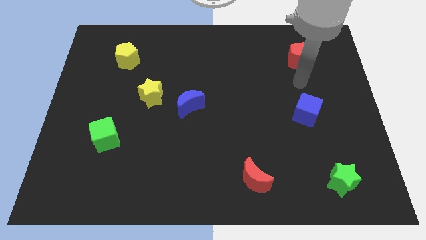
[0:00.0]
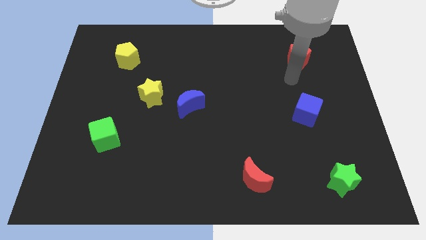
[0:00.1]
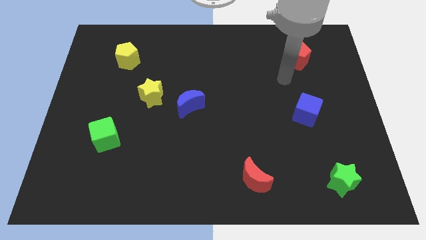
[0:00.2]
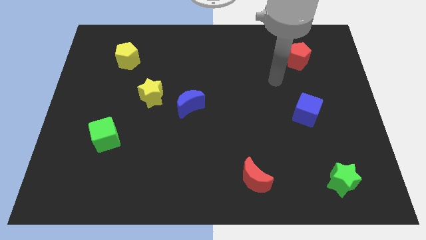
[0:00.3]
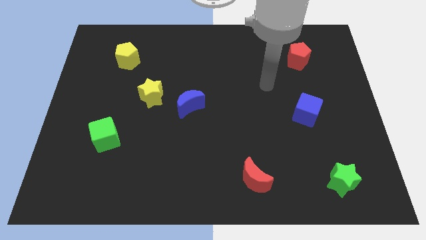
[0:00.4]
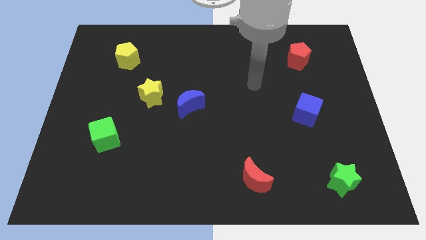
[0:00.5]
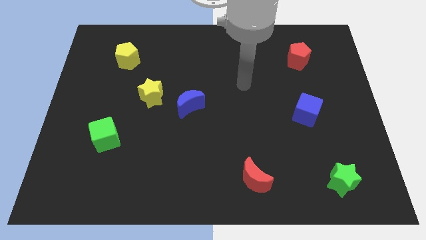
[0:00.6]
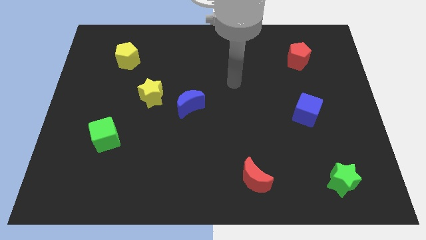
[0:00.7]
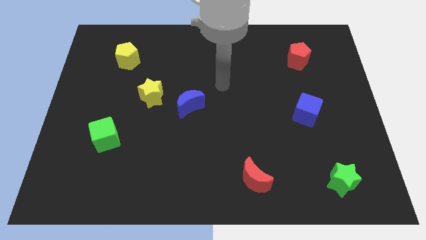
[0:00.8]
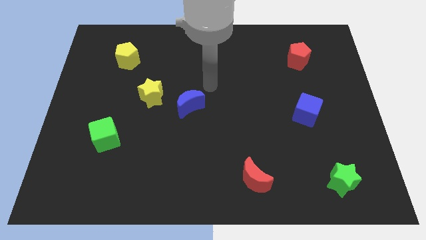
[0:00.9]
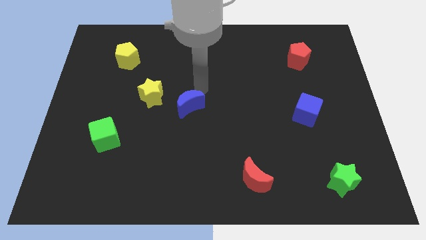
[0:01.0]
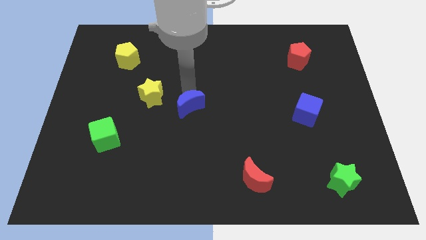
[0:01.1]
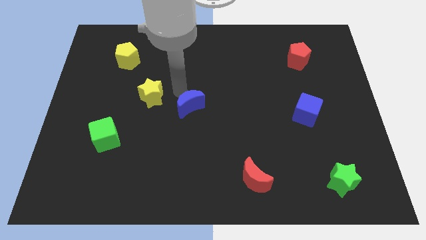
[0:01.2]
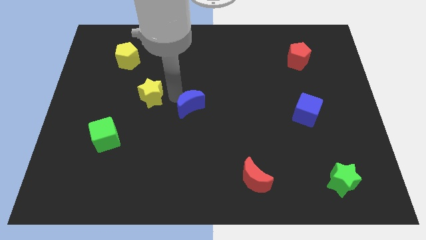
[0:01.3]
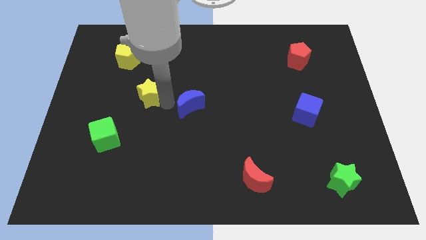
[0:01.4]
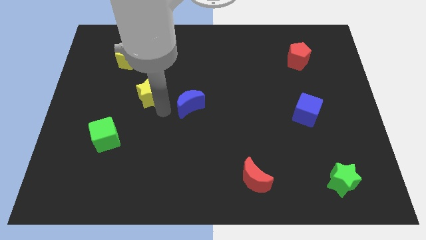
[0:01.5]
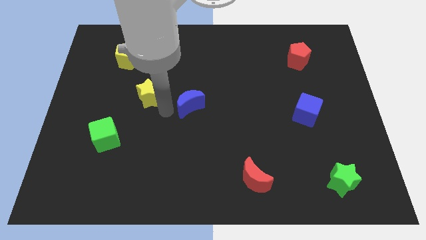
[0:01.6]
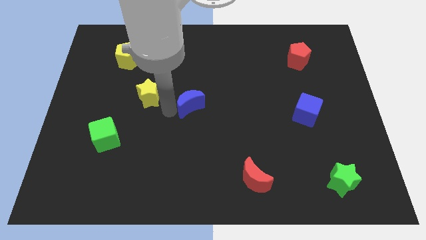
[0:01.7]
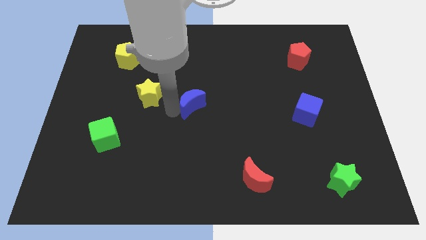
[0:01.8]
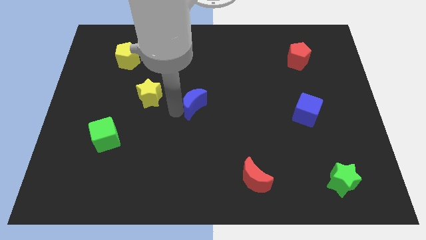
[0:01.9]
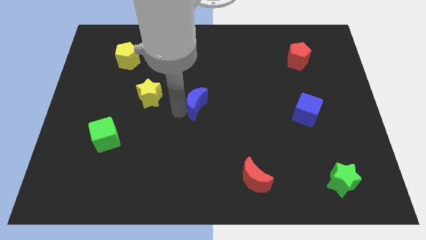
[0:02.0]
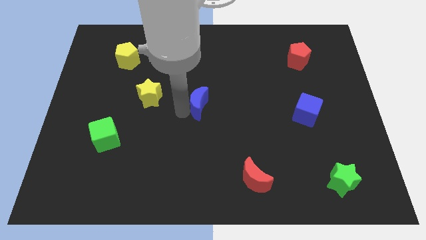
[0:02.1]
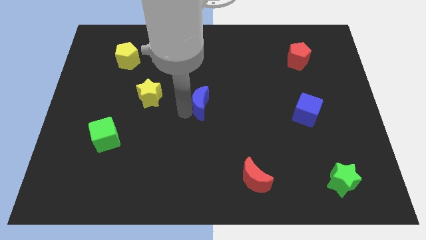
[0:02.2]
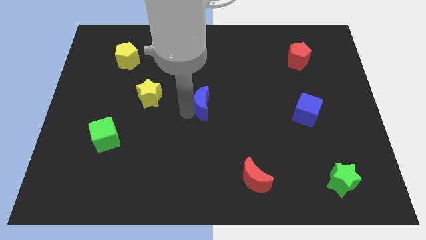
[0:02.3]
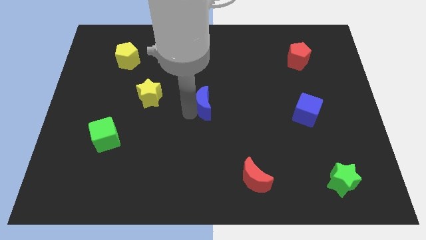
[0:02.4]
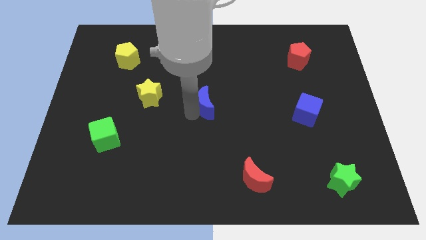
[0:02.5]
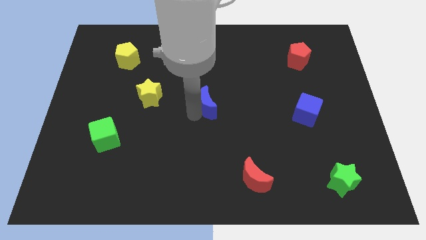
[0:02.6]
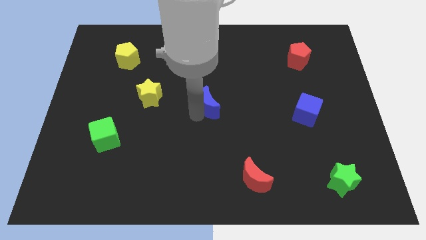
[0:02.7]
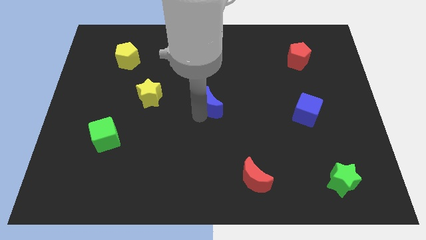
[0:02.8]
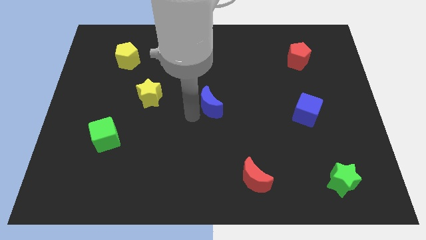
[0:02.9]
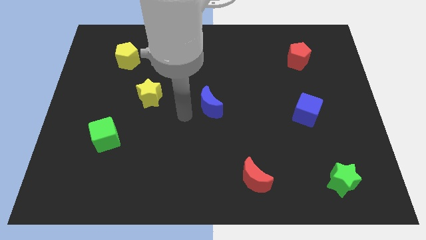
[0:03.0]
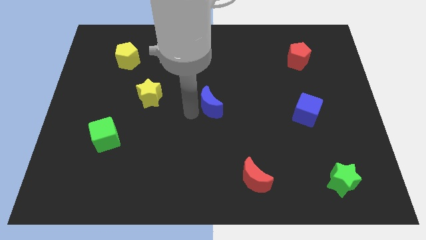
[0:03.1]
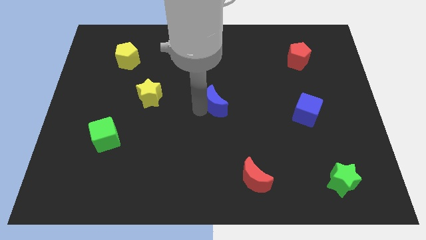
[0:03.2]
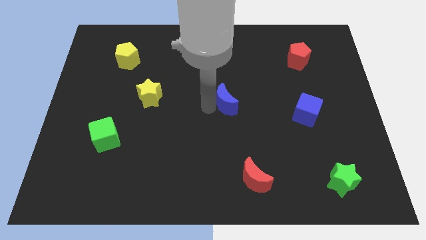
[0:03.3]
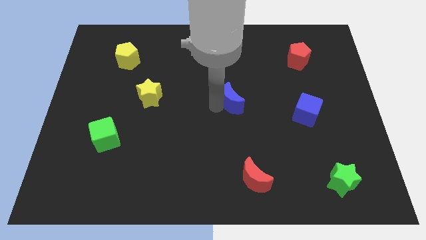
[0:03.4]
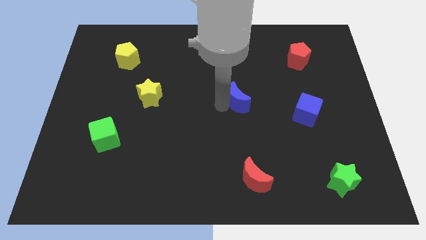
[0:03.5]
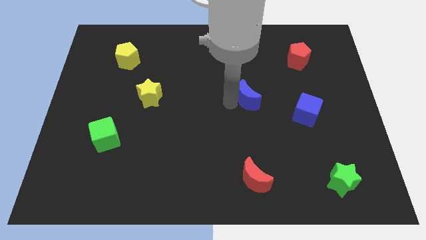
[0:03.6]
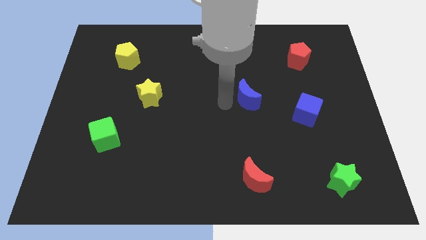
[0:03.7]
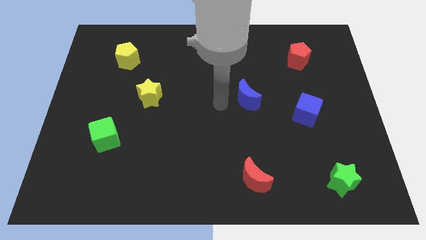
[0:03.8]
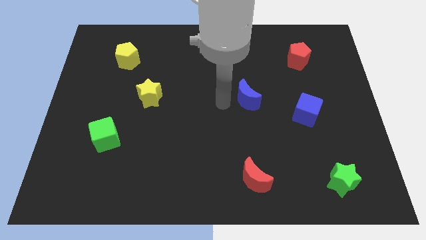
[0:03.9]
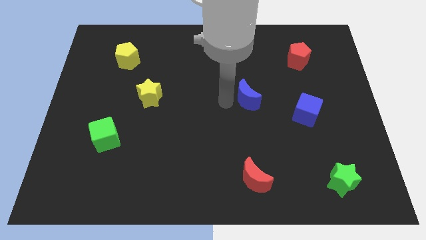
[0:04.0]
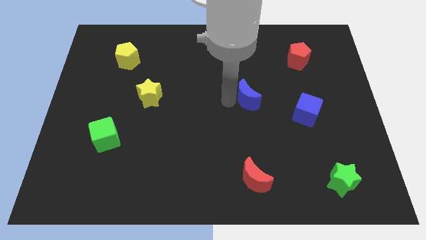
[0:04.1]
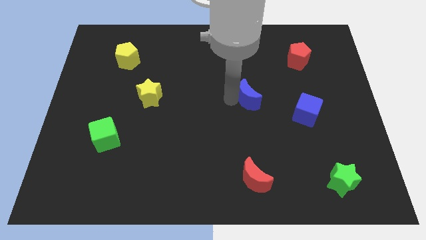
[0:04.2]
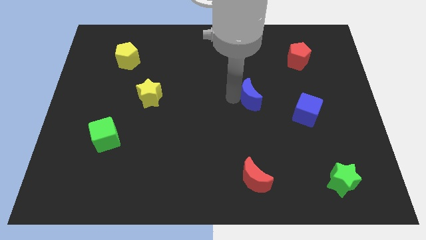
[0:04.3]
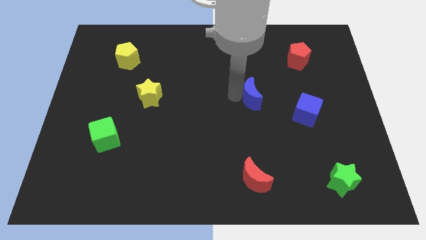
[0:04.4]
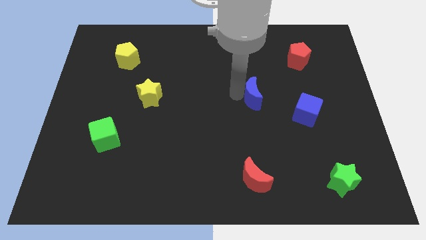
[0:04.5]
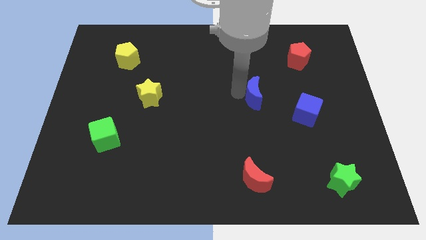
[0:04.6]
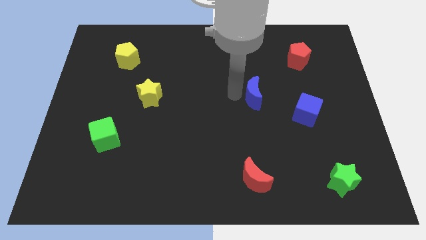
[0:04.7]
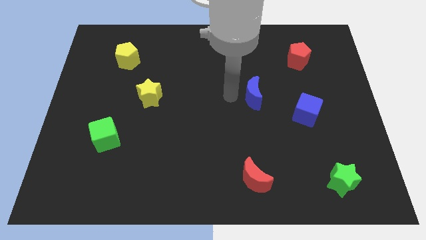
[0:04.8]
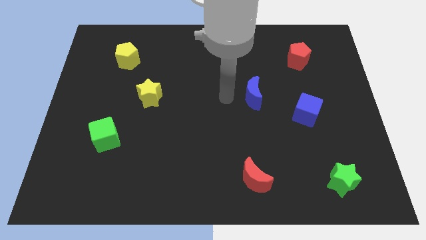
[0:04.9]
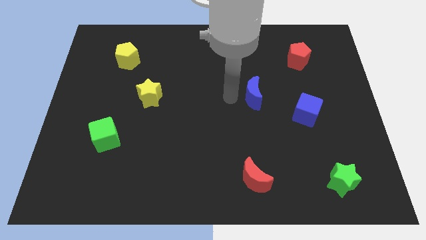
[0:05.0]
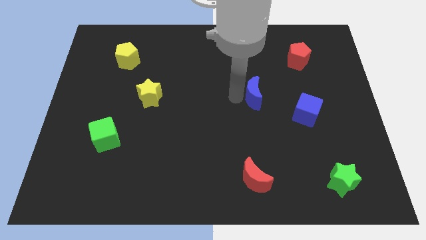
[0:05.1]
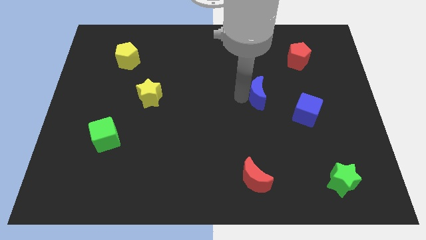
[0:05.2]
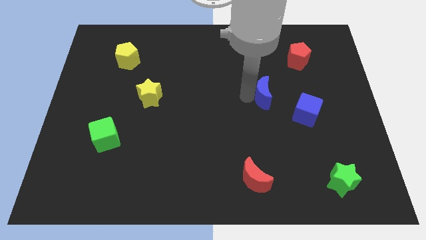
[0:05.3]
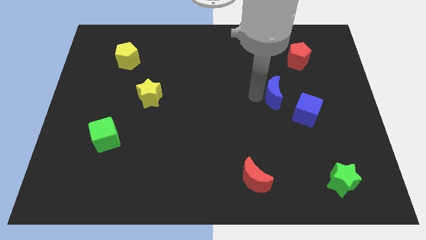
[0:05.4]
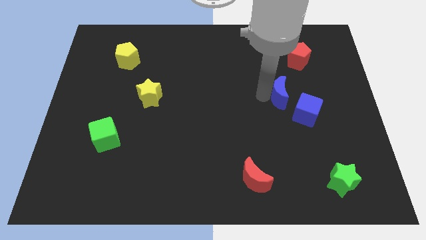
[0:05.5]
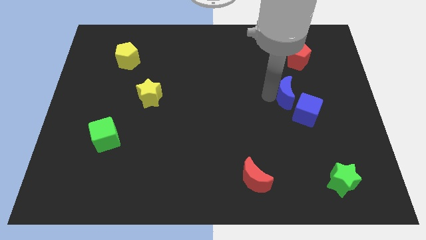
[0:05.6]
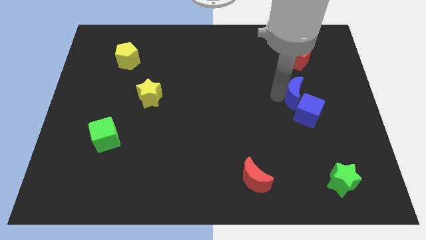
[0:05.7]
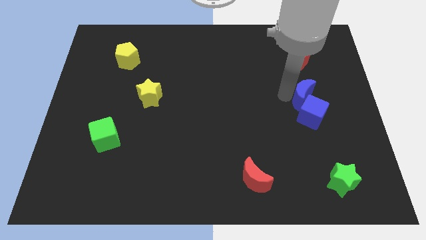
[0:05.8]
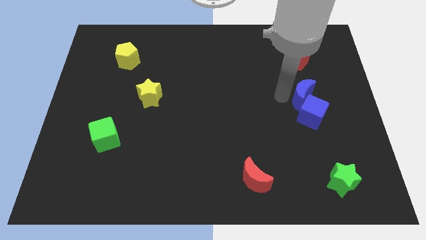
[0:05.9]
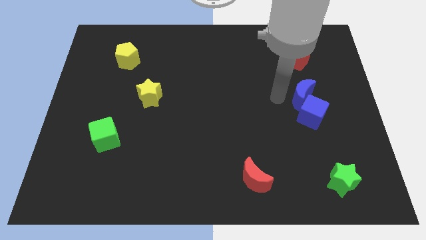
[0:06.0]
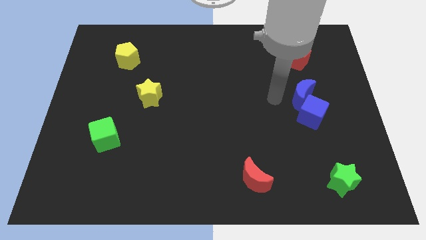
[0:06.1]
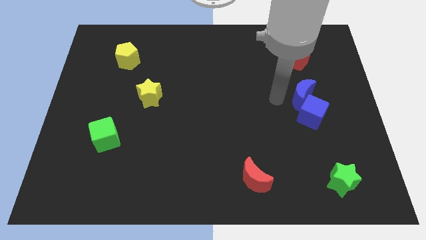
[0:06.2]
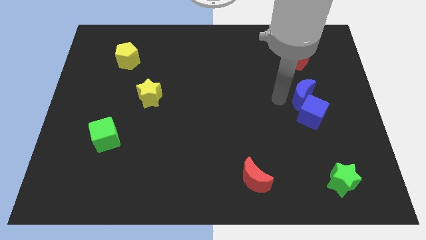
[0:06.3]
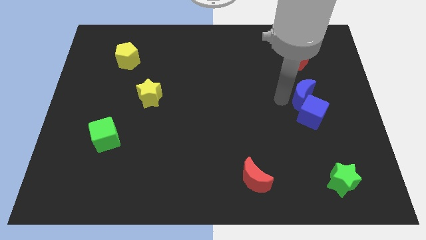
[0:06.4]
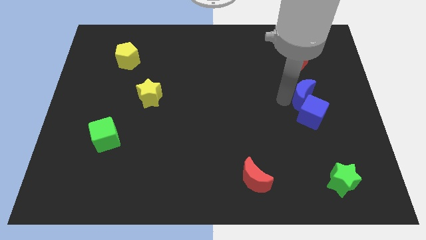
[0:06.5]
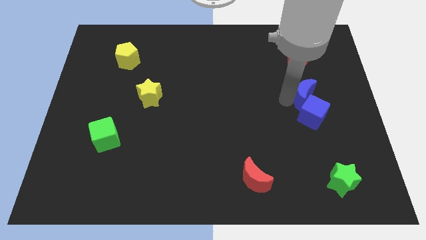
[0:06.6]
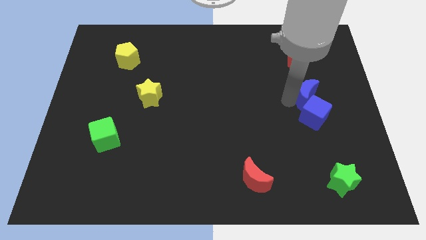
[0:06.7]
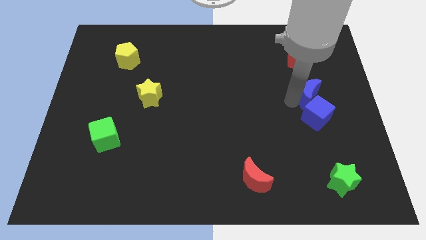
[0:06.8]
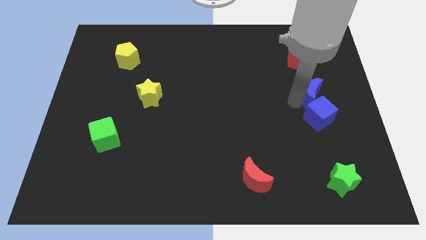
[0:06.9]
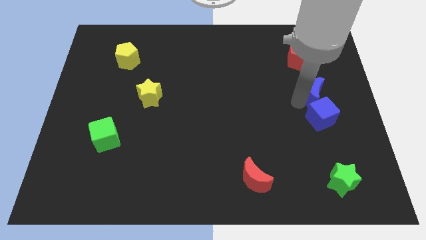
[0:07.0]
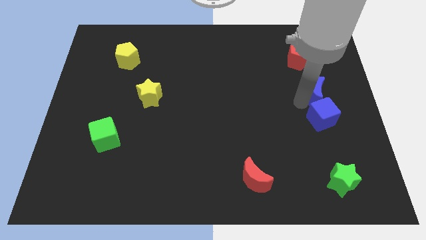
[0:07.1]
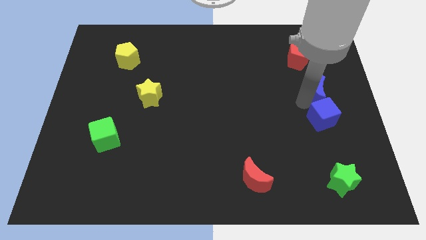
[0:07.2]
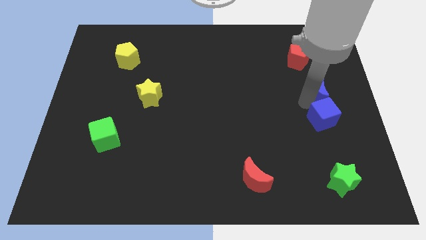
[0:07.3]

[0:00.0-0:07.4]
push the blue moon to the right side
